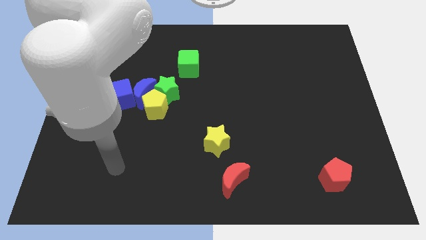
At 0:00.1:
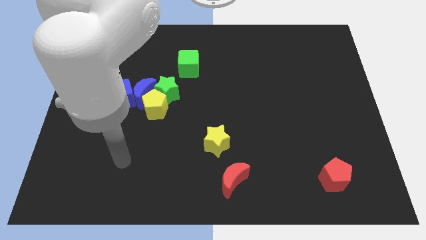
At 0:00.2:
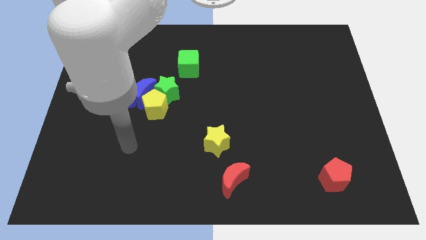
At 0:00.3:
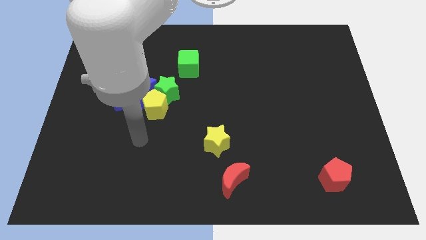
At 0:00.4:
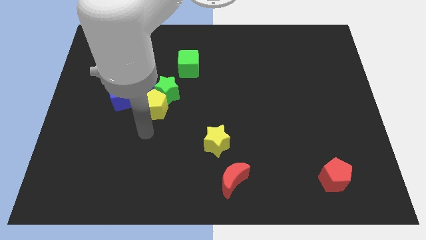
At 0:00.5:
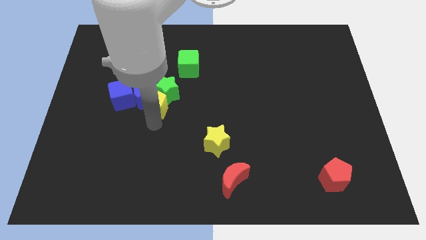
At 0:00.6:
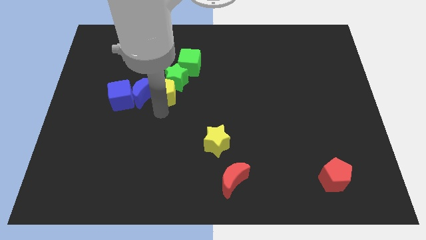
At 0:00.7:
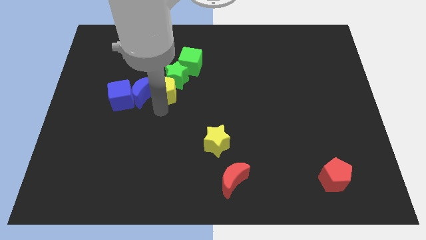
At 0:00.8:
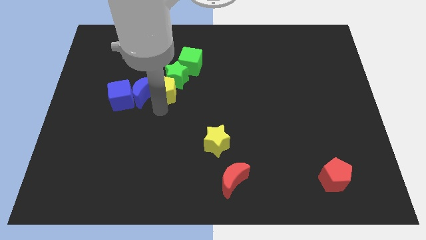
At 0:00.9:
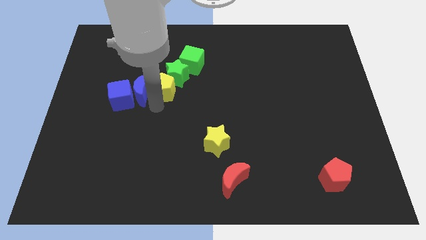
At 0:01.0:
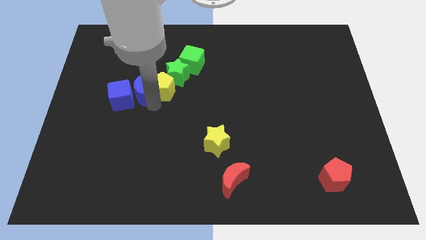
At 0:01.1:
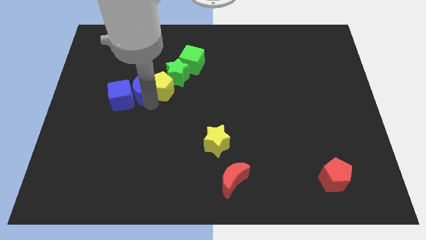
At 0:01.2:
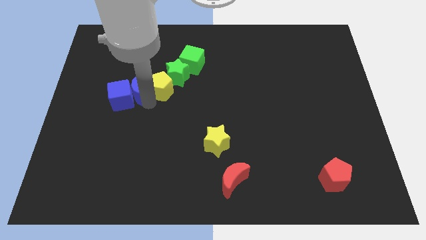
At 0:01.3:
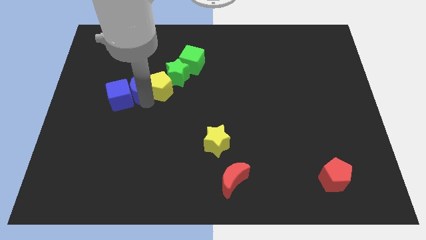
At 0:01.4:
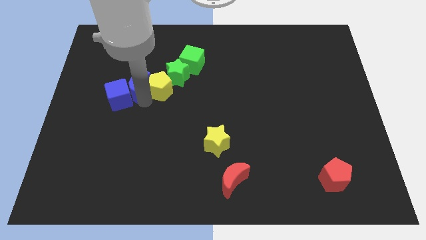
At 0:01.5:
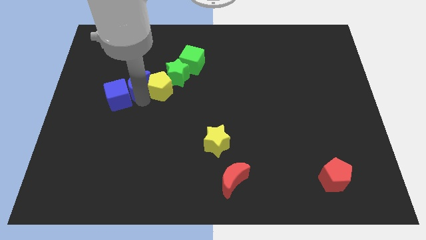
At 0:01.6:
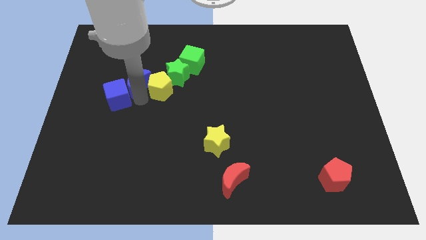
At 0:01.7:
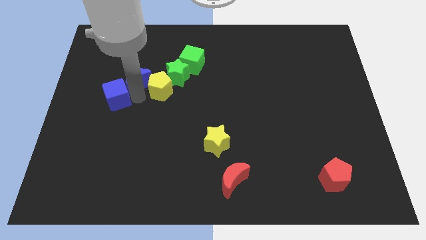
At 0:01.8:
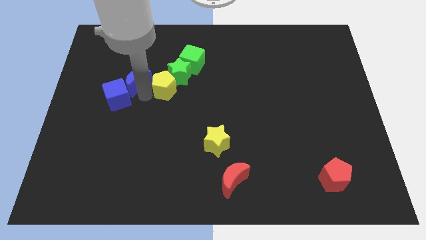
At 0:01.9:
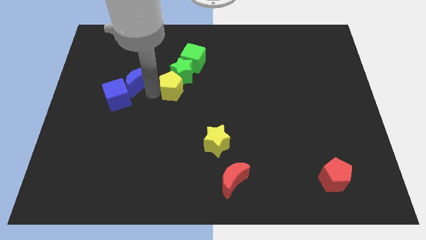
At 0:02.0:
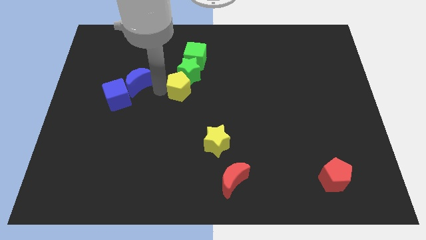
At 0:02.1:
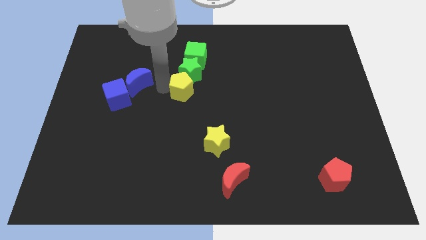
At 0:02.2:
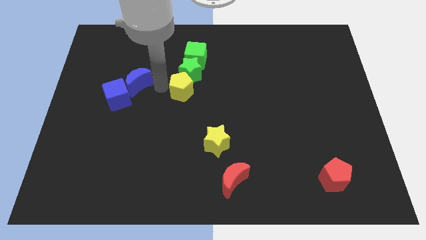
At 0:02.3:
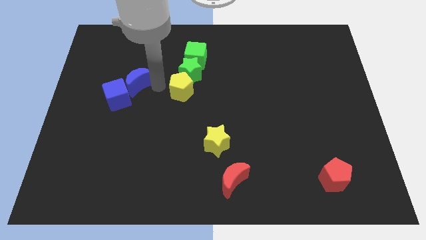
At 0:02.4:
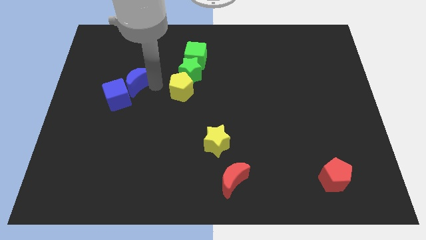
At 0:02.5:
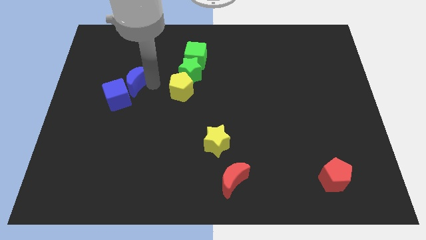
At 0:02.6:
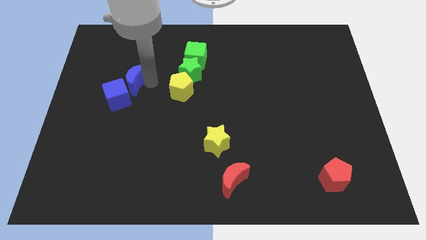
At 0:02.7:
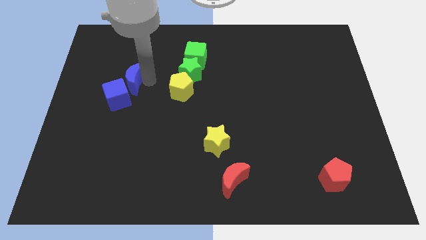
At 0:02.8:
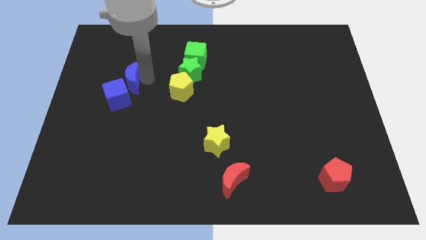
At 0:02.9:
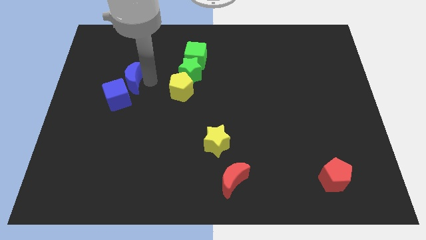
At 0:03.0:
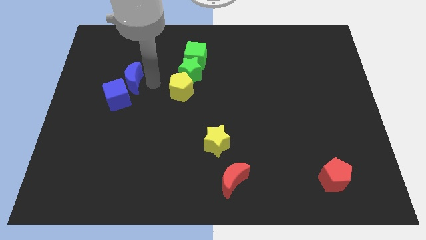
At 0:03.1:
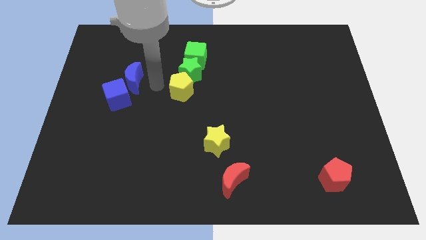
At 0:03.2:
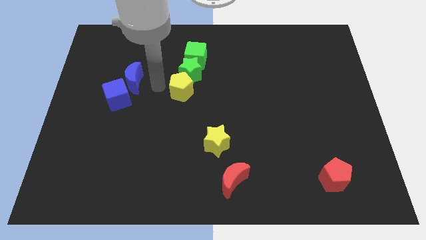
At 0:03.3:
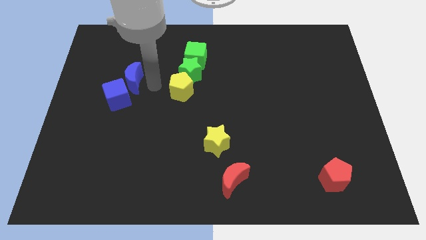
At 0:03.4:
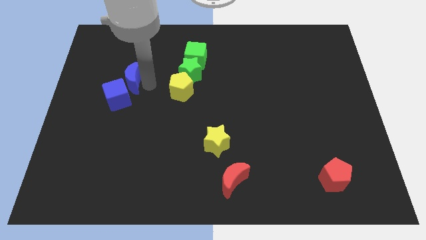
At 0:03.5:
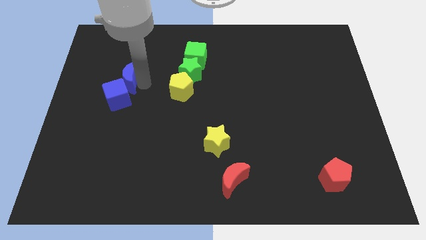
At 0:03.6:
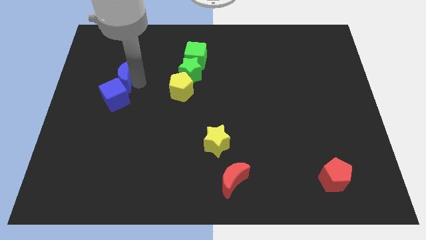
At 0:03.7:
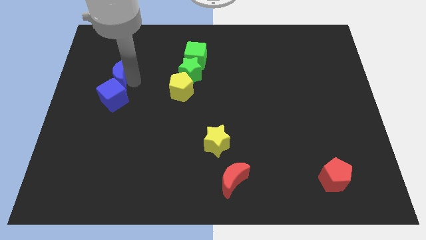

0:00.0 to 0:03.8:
pull the blue moon apart from the yellow pentagon, blue cube, and green star

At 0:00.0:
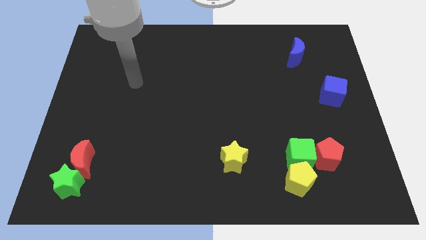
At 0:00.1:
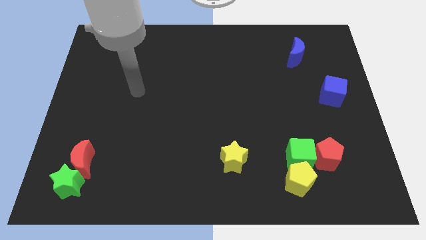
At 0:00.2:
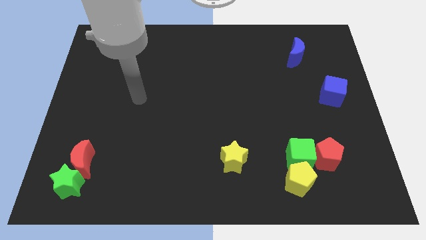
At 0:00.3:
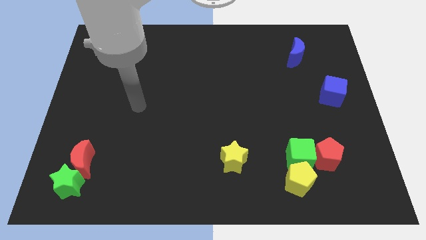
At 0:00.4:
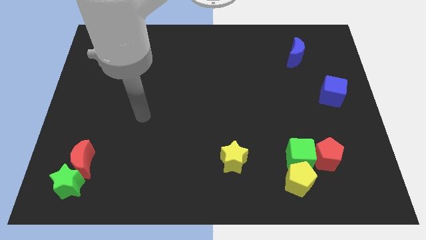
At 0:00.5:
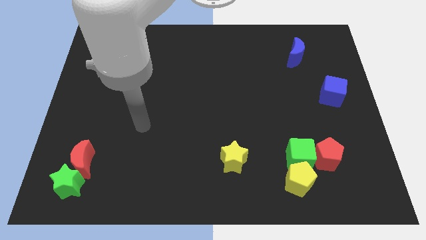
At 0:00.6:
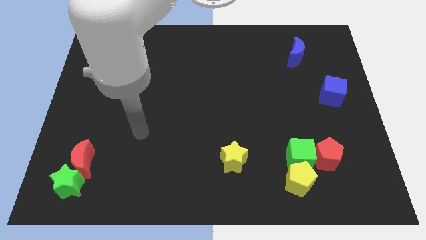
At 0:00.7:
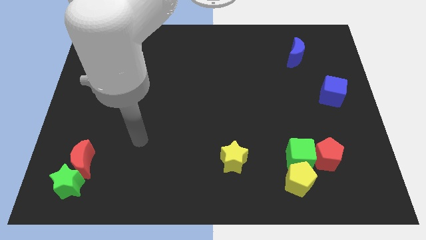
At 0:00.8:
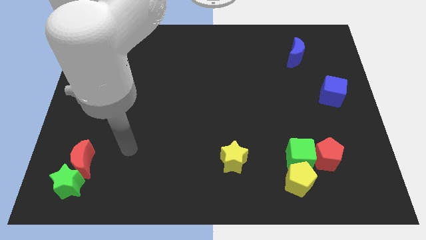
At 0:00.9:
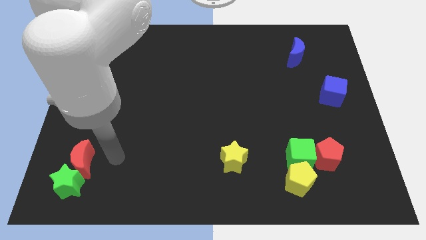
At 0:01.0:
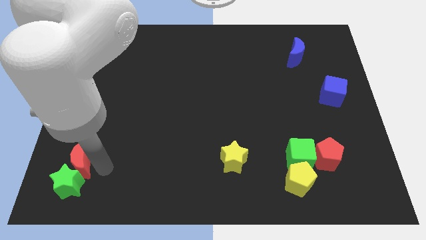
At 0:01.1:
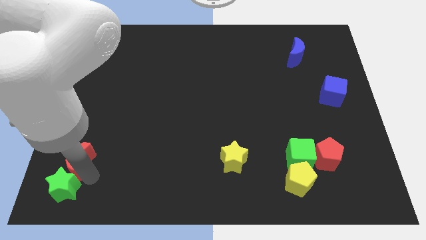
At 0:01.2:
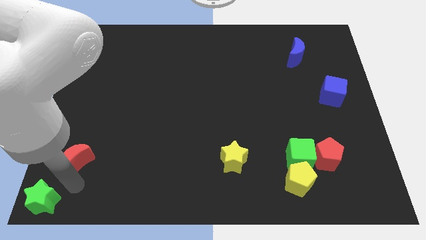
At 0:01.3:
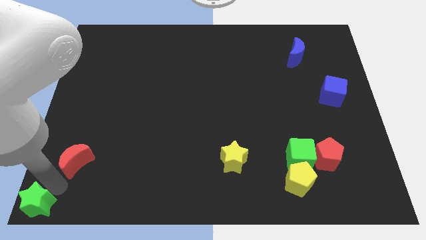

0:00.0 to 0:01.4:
separate the red moon from the green star

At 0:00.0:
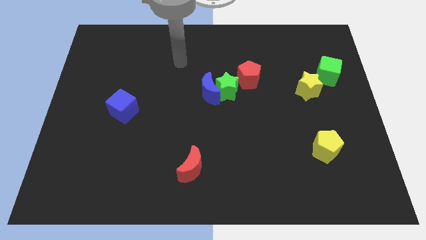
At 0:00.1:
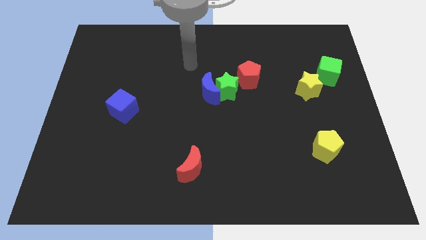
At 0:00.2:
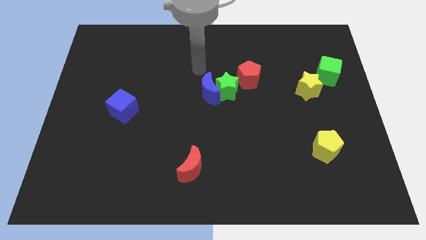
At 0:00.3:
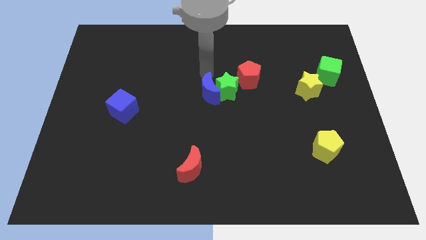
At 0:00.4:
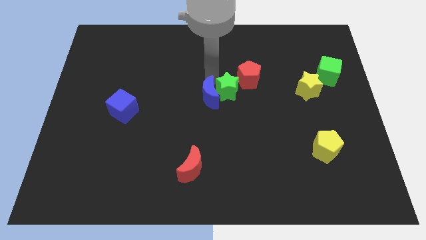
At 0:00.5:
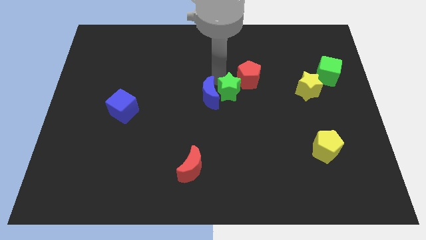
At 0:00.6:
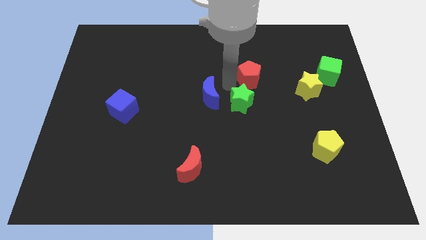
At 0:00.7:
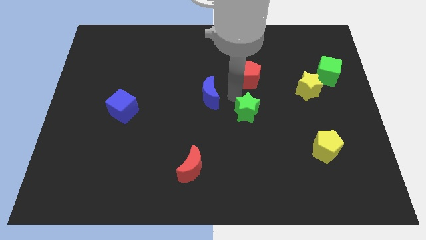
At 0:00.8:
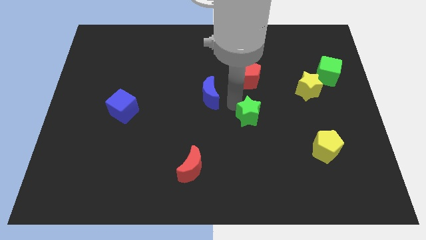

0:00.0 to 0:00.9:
separate the blue moon from the green star

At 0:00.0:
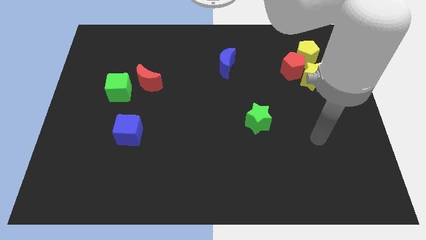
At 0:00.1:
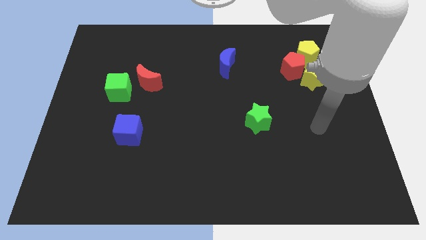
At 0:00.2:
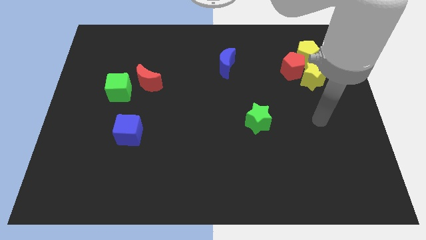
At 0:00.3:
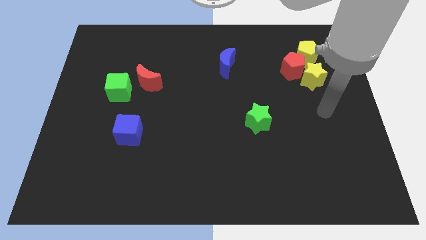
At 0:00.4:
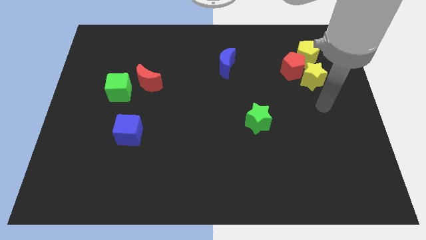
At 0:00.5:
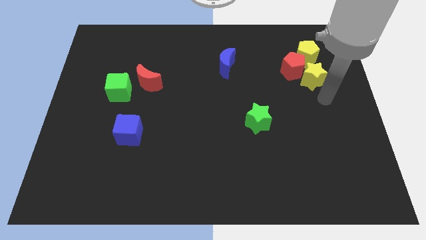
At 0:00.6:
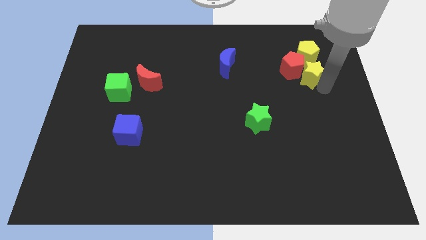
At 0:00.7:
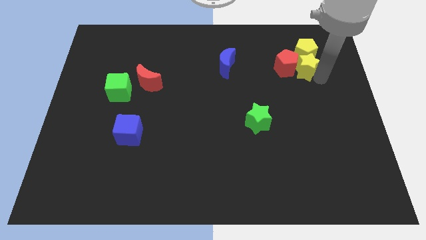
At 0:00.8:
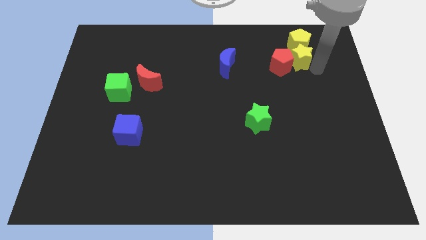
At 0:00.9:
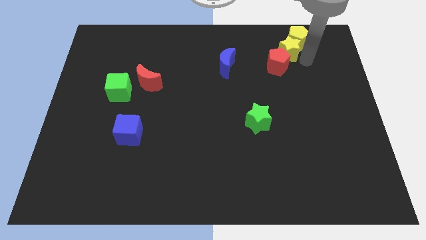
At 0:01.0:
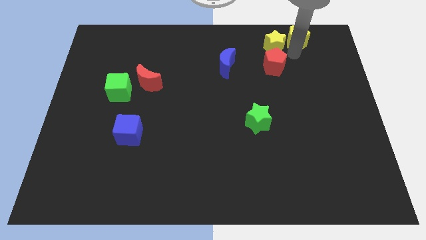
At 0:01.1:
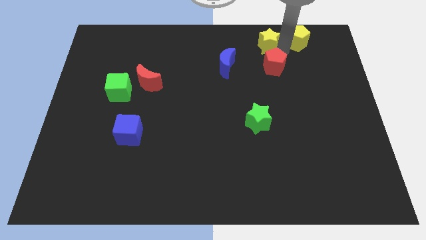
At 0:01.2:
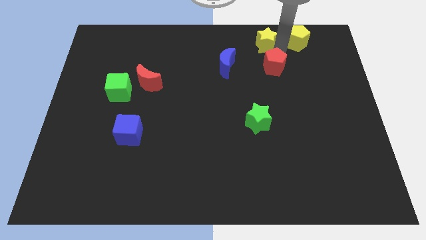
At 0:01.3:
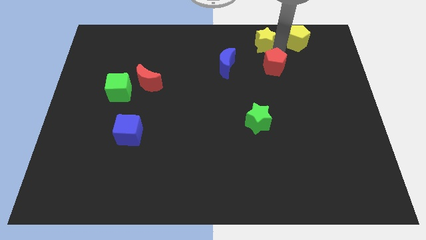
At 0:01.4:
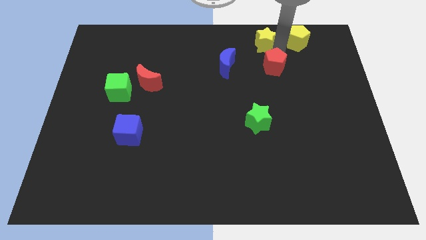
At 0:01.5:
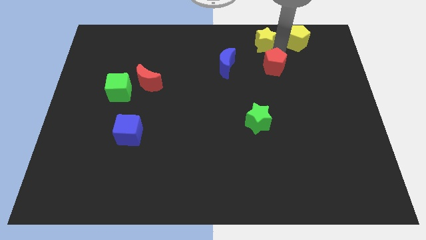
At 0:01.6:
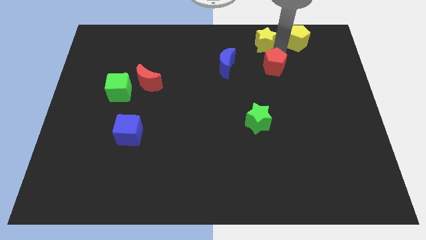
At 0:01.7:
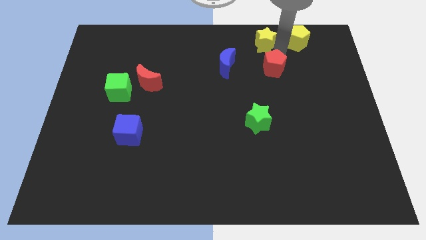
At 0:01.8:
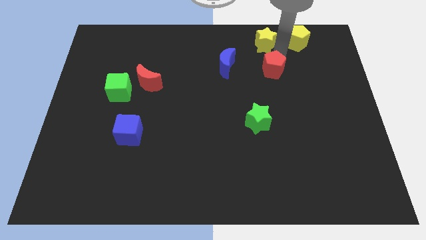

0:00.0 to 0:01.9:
move the red pentagon away from the yellow star and yellow pentagon

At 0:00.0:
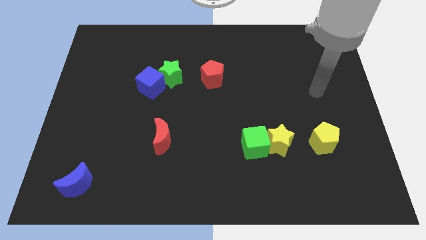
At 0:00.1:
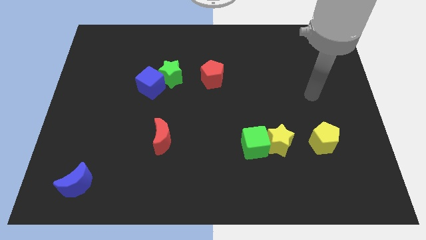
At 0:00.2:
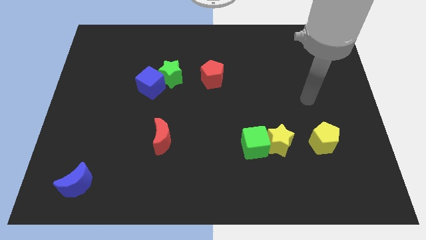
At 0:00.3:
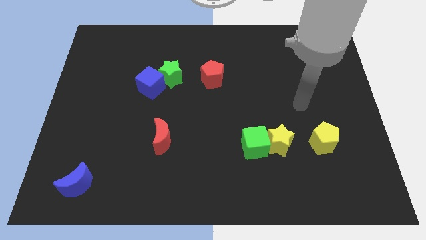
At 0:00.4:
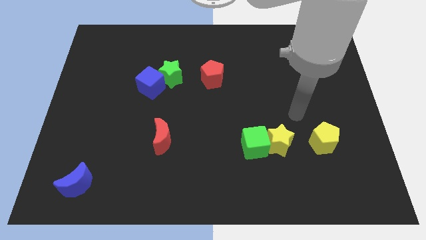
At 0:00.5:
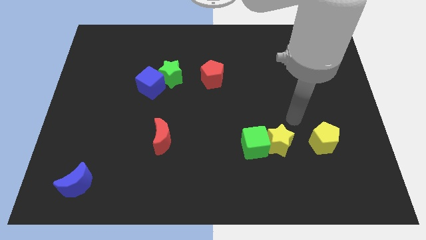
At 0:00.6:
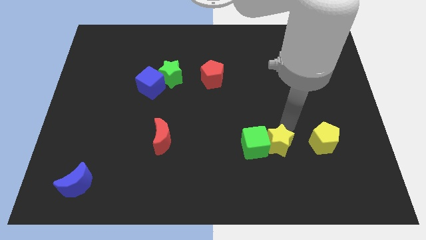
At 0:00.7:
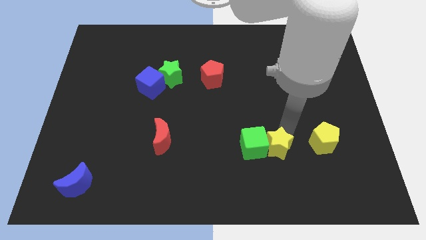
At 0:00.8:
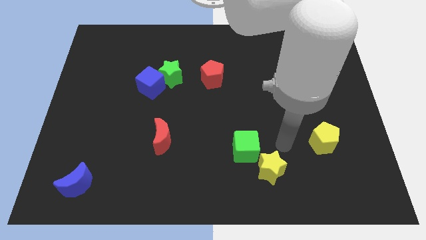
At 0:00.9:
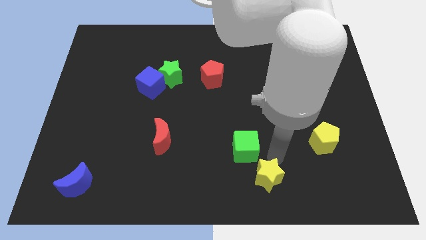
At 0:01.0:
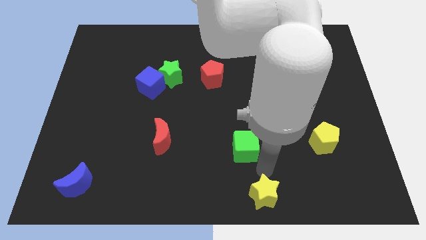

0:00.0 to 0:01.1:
pull the green cube apart from the yellow star

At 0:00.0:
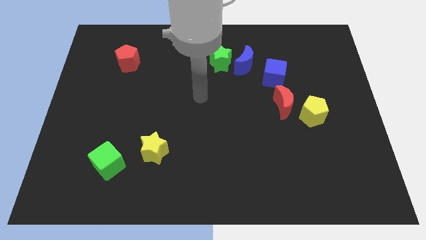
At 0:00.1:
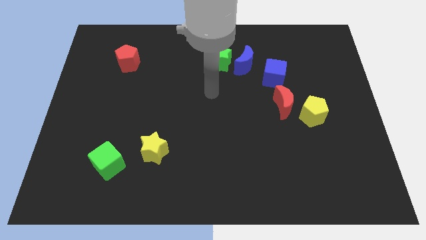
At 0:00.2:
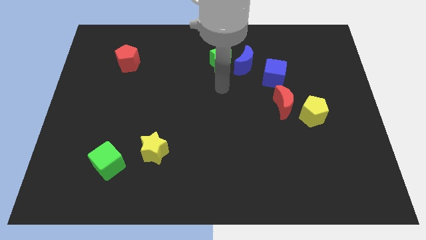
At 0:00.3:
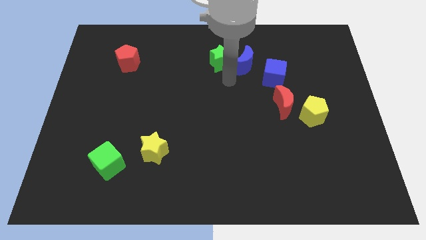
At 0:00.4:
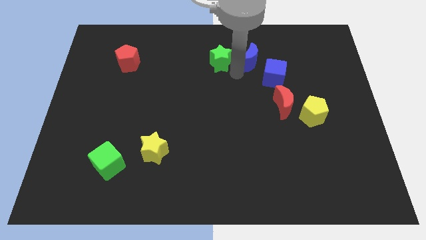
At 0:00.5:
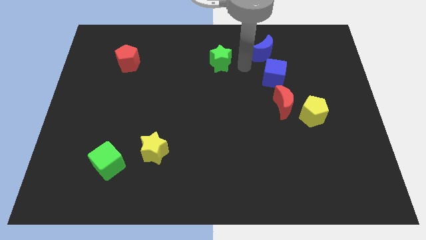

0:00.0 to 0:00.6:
separate the green star from the blue moon
